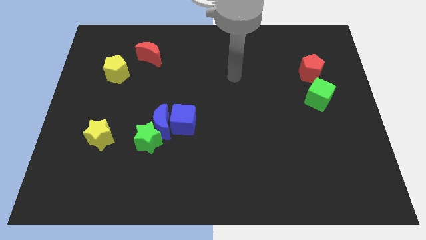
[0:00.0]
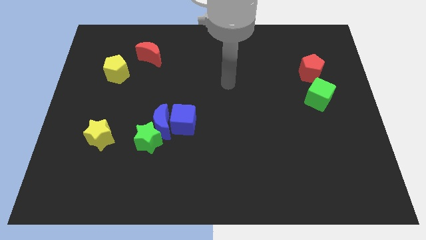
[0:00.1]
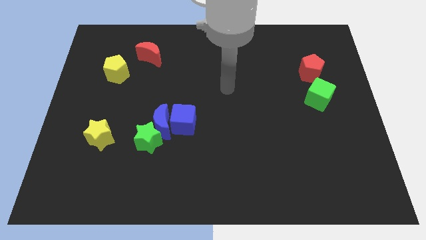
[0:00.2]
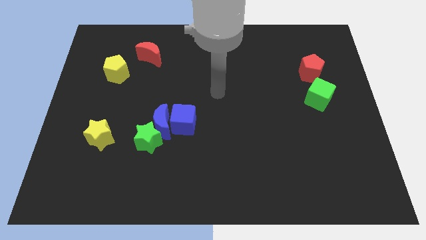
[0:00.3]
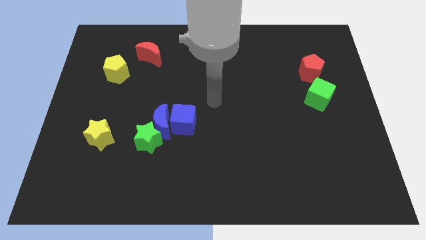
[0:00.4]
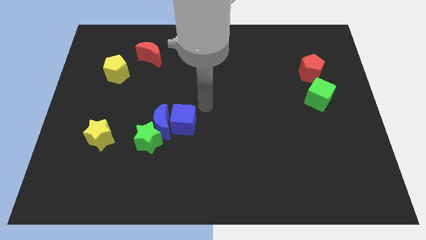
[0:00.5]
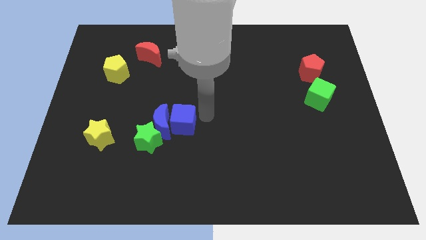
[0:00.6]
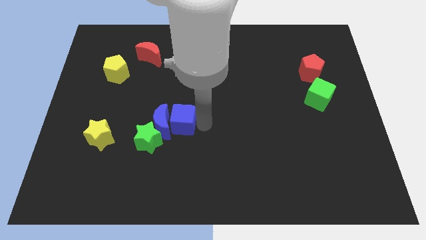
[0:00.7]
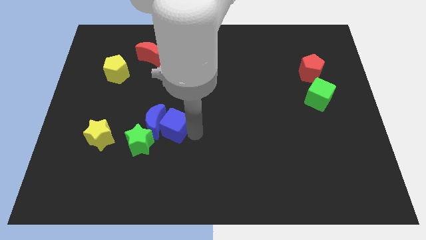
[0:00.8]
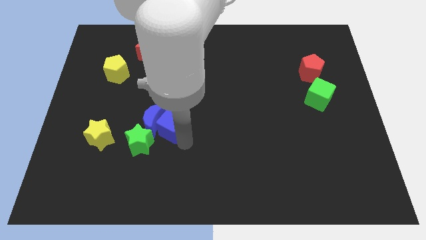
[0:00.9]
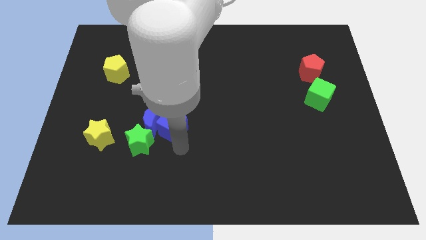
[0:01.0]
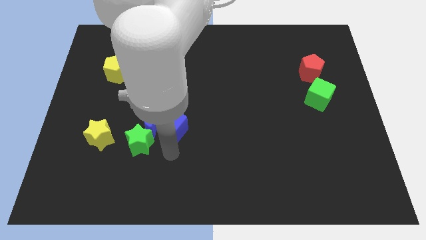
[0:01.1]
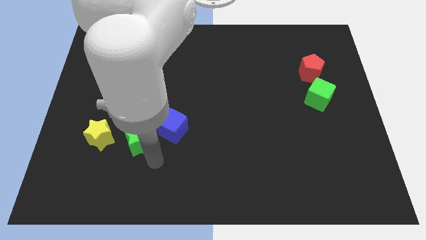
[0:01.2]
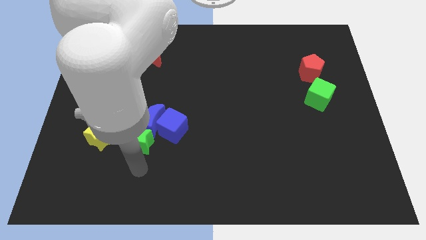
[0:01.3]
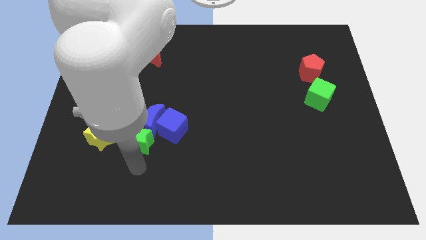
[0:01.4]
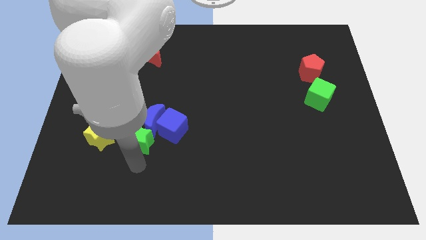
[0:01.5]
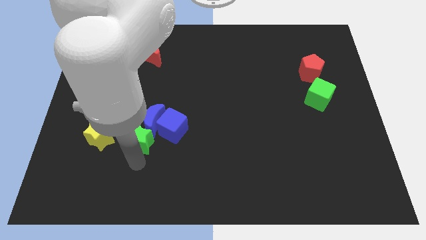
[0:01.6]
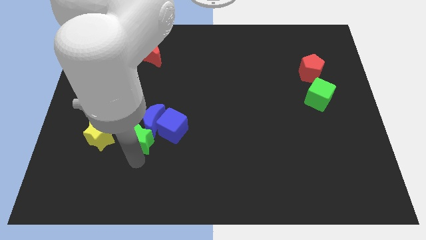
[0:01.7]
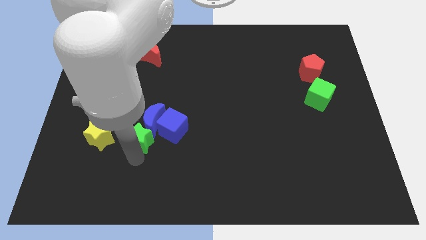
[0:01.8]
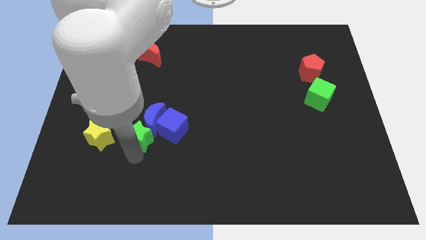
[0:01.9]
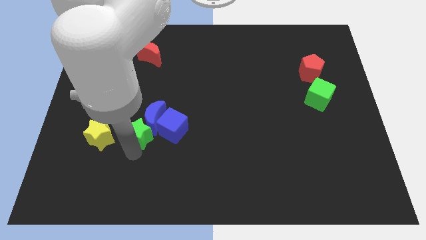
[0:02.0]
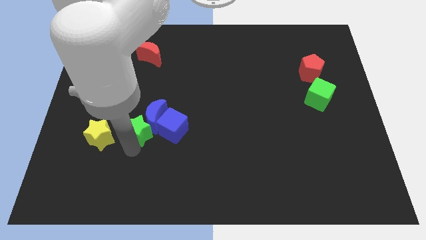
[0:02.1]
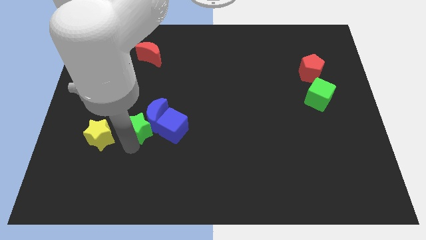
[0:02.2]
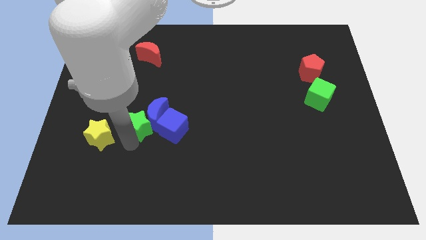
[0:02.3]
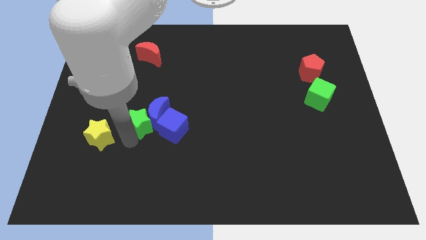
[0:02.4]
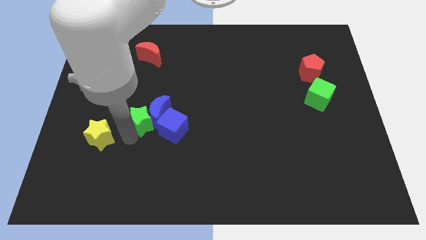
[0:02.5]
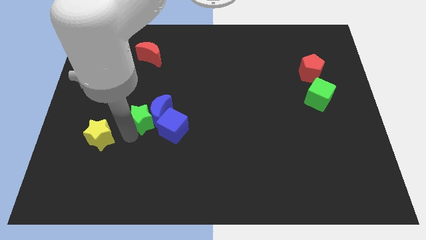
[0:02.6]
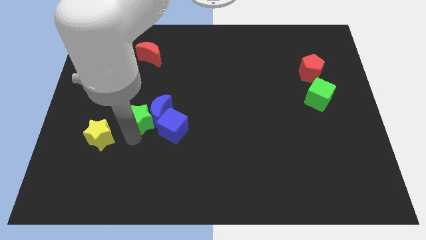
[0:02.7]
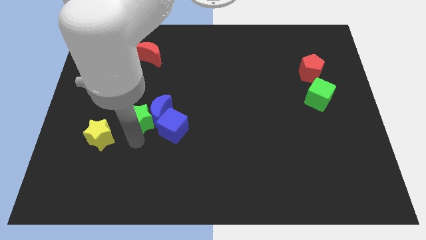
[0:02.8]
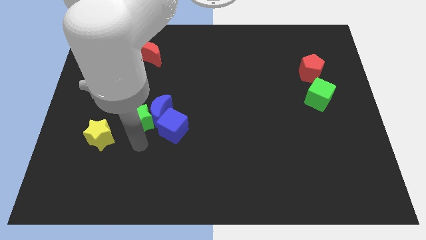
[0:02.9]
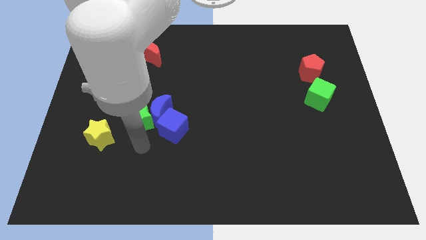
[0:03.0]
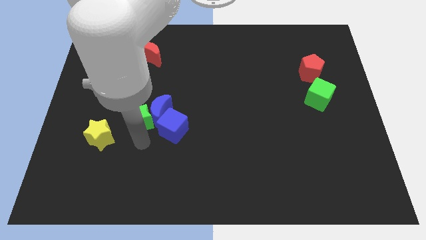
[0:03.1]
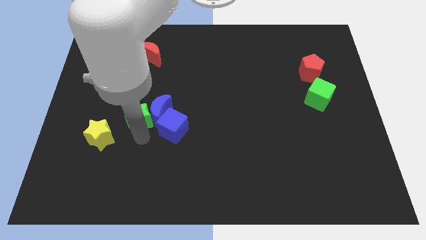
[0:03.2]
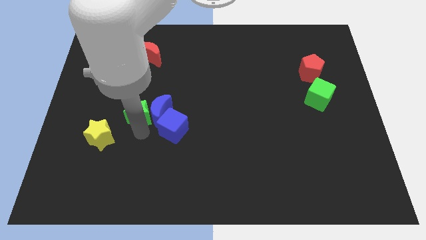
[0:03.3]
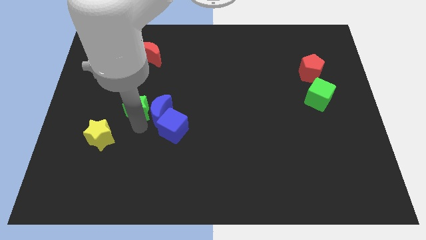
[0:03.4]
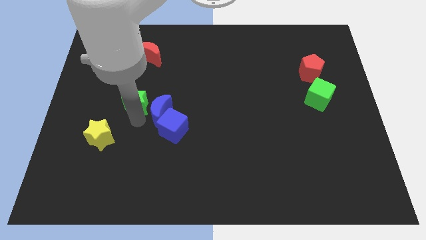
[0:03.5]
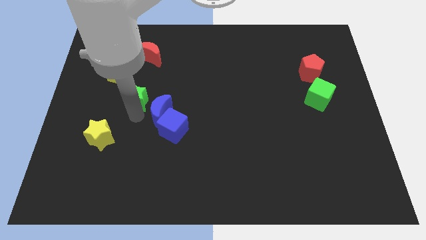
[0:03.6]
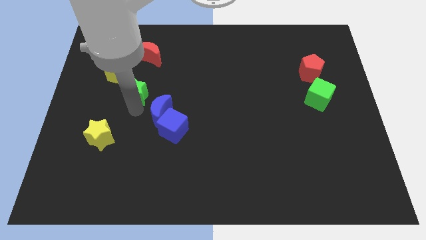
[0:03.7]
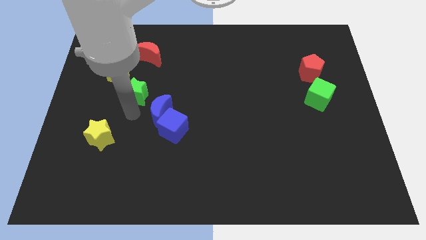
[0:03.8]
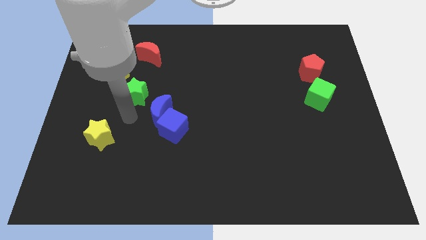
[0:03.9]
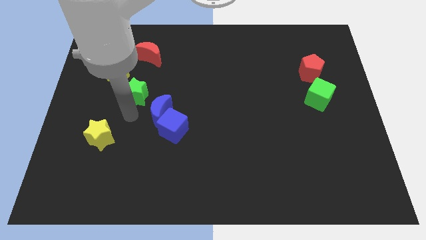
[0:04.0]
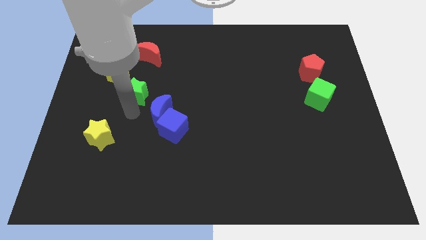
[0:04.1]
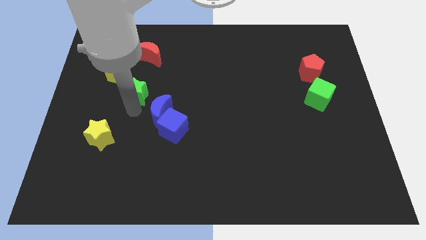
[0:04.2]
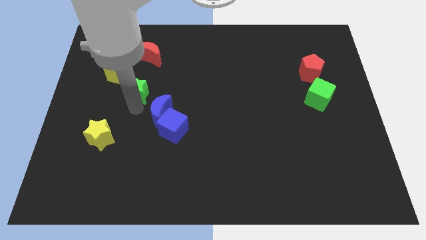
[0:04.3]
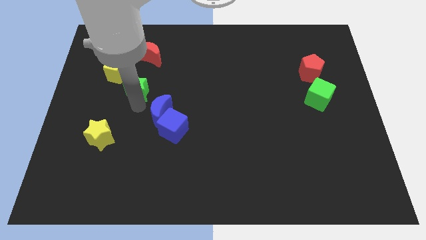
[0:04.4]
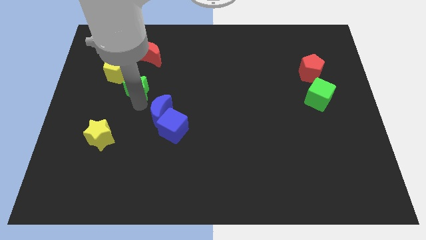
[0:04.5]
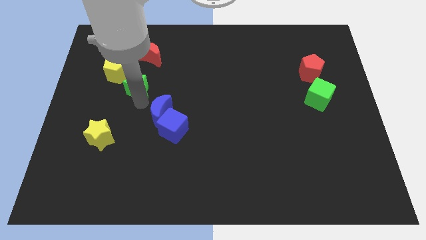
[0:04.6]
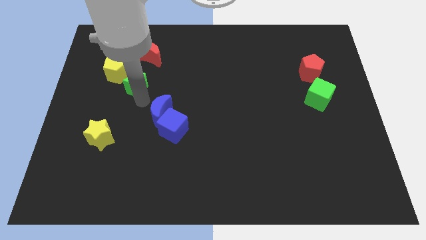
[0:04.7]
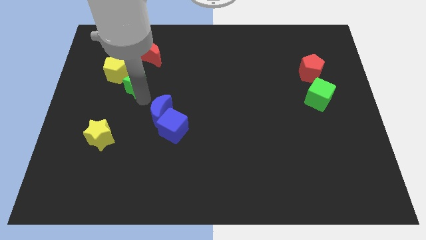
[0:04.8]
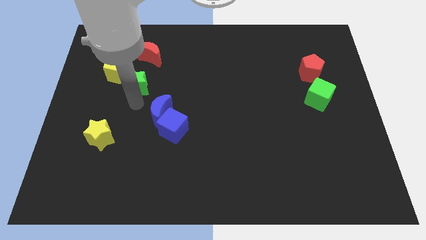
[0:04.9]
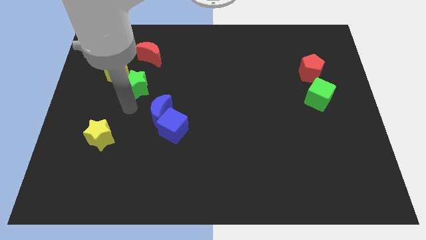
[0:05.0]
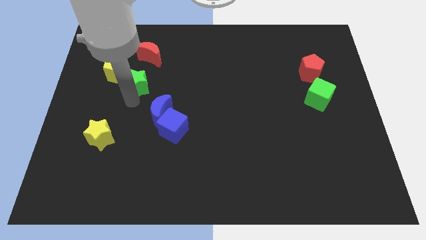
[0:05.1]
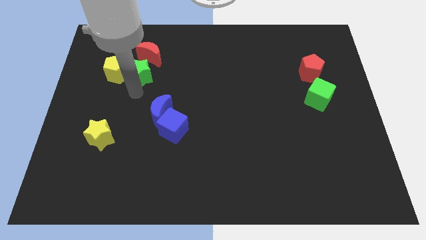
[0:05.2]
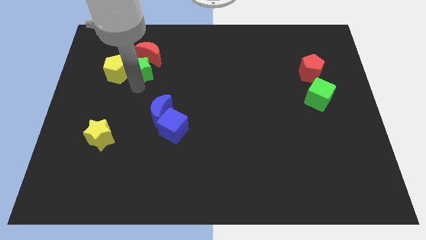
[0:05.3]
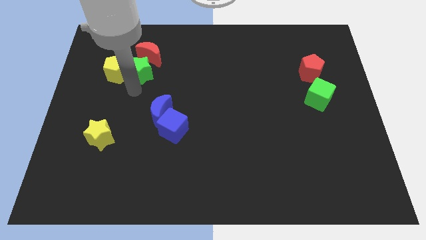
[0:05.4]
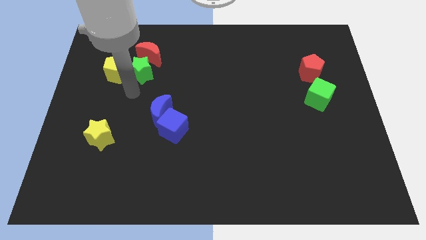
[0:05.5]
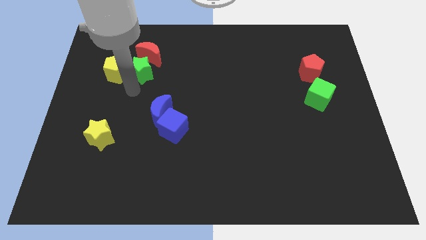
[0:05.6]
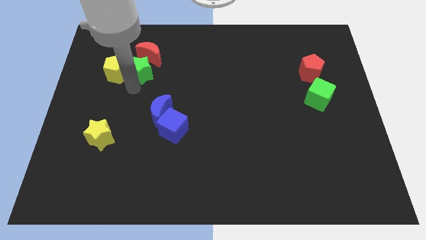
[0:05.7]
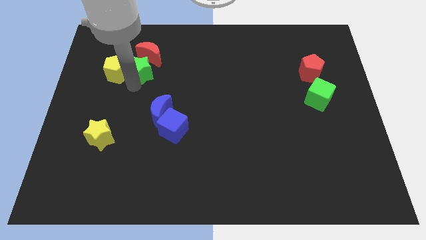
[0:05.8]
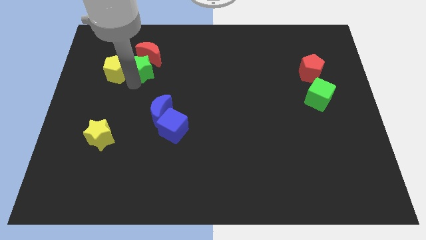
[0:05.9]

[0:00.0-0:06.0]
push the green star to the red moon
